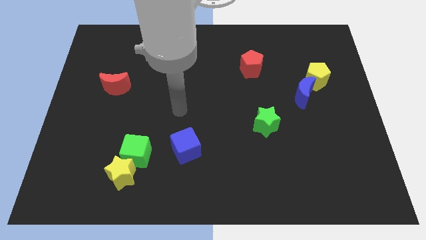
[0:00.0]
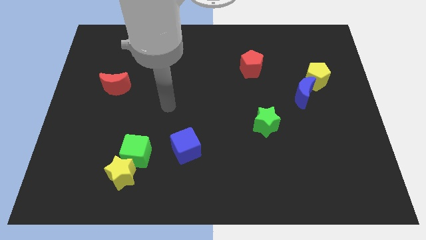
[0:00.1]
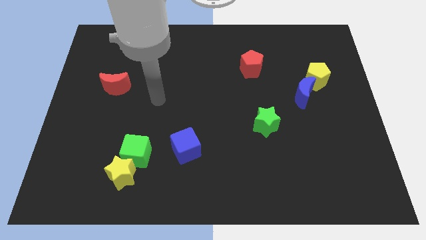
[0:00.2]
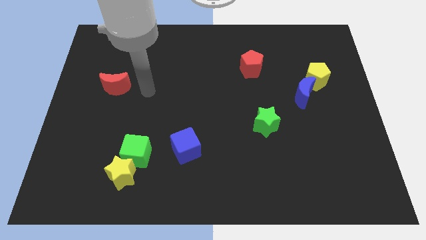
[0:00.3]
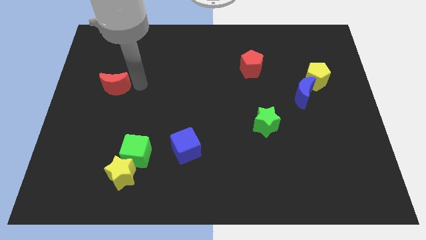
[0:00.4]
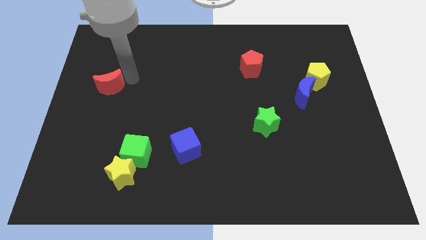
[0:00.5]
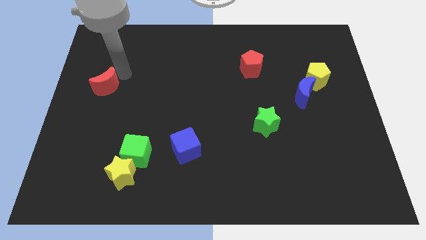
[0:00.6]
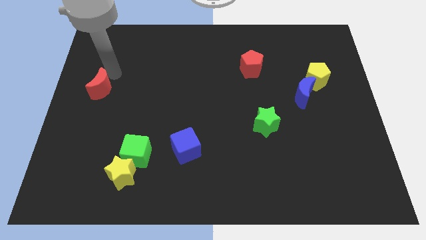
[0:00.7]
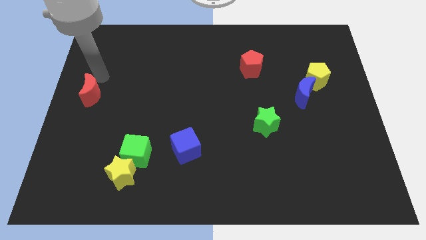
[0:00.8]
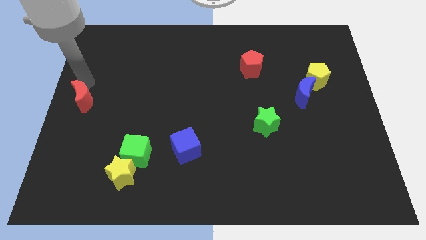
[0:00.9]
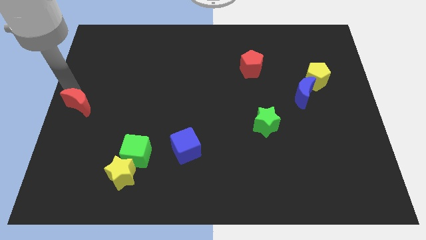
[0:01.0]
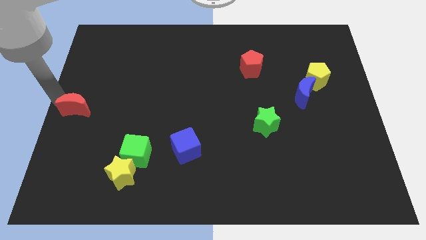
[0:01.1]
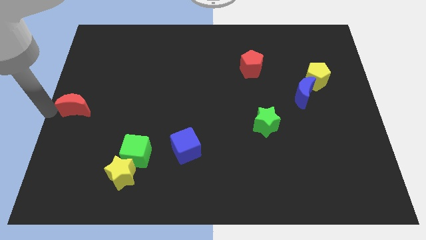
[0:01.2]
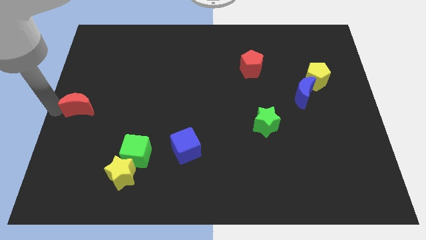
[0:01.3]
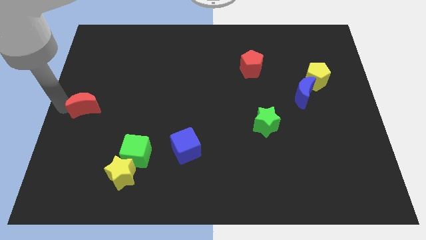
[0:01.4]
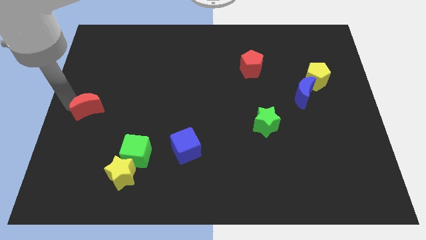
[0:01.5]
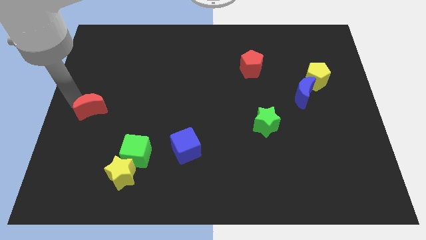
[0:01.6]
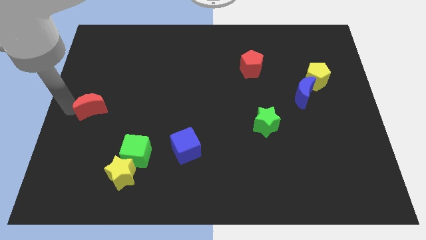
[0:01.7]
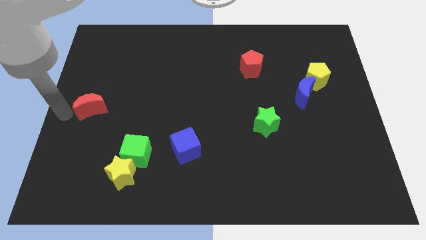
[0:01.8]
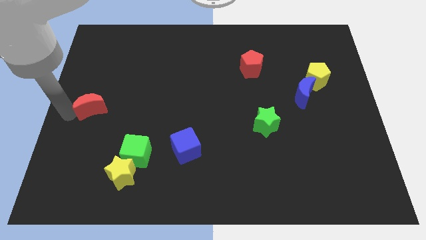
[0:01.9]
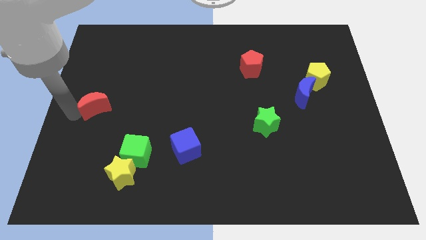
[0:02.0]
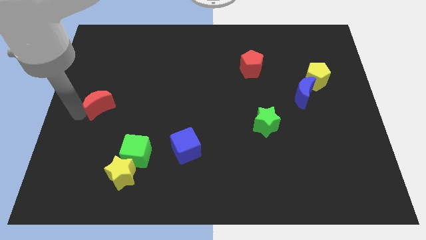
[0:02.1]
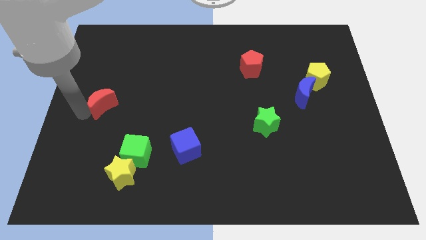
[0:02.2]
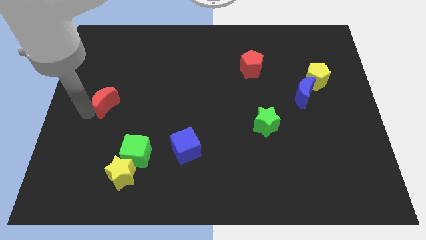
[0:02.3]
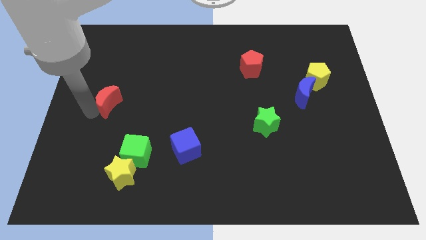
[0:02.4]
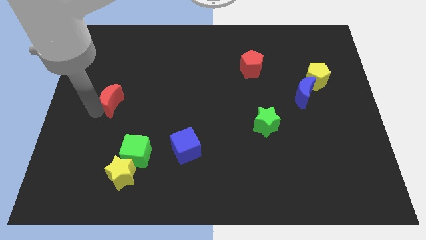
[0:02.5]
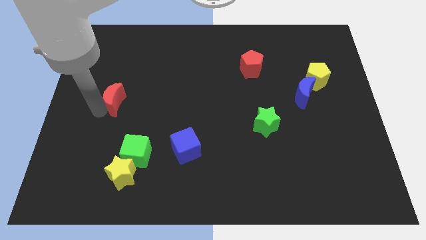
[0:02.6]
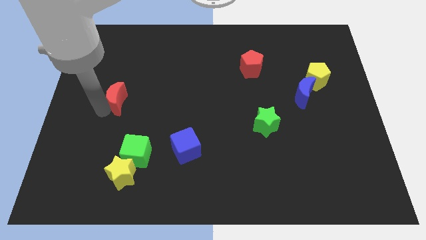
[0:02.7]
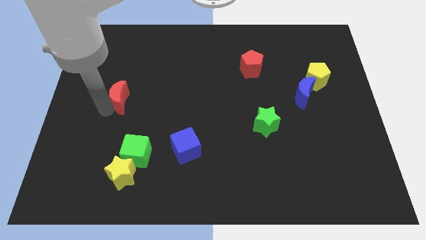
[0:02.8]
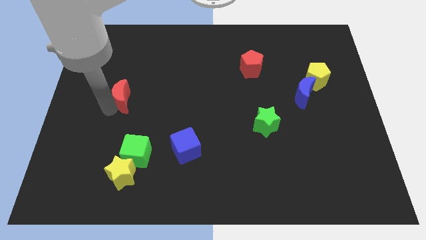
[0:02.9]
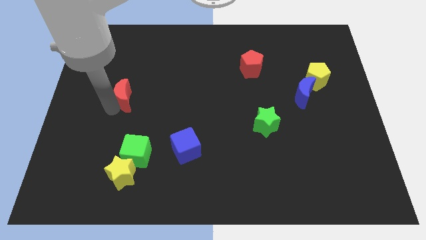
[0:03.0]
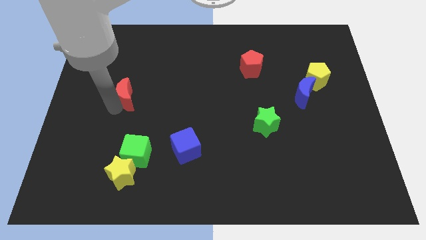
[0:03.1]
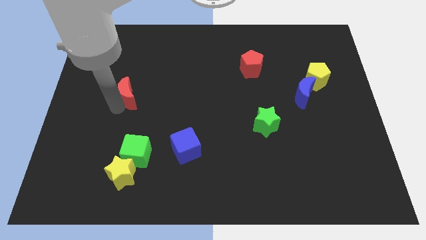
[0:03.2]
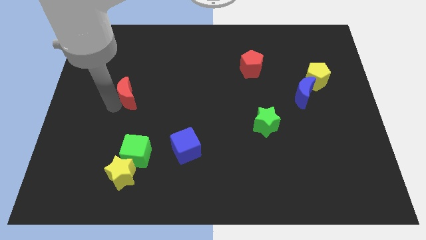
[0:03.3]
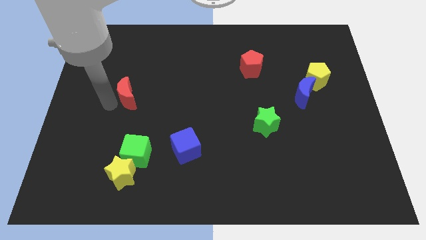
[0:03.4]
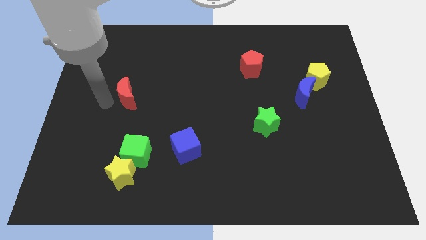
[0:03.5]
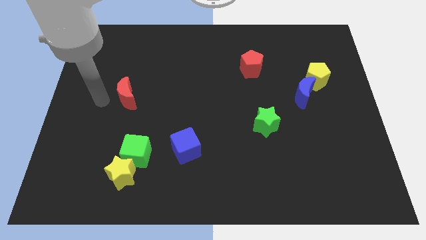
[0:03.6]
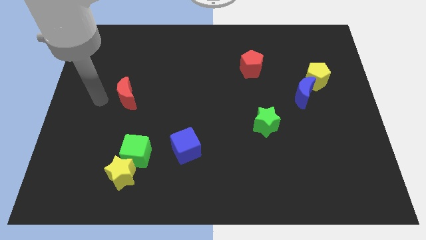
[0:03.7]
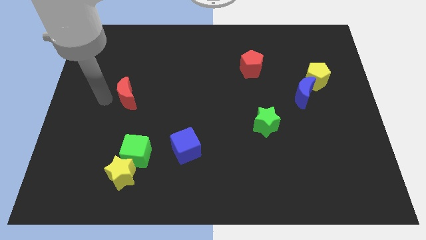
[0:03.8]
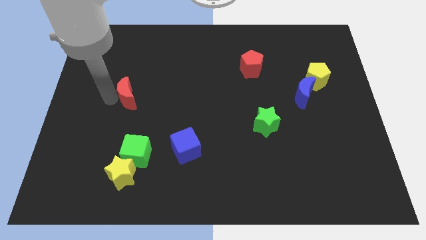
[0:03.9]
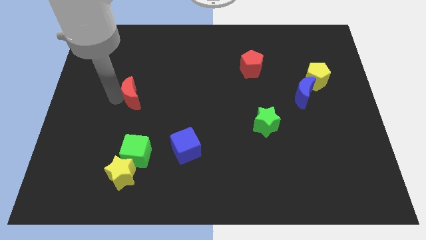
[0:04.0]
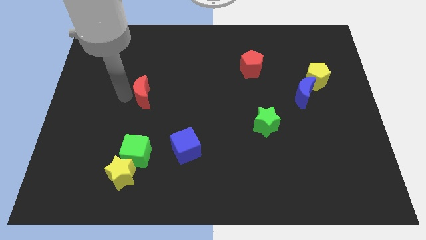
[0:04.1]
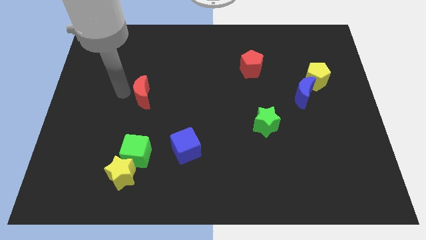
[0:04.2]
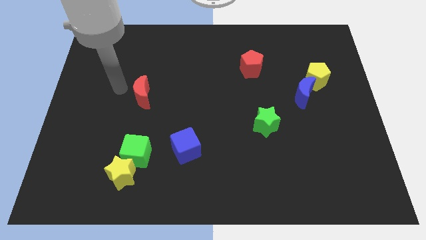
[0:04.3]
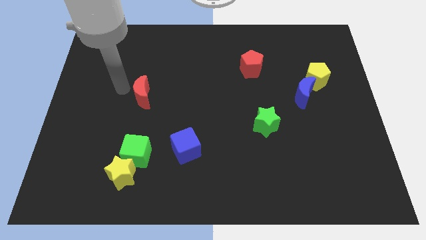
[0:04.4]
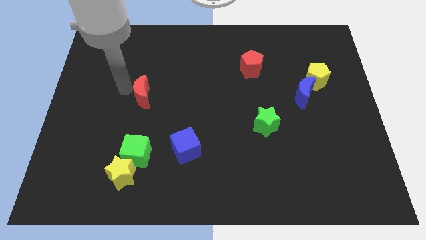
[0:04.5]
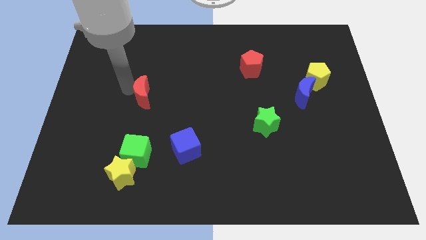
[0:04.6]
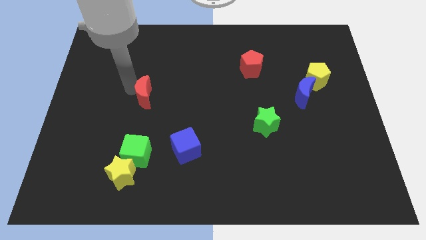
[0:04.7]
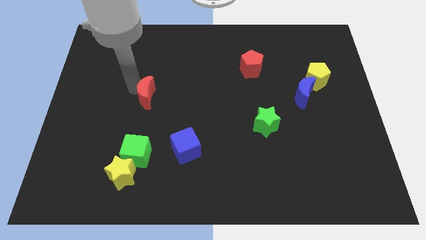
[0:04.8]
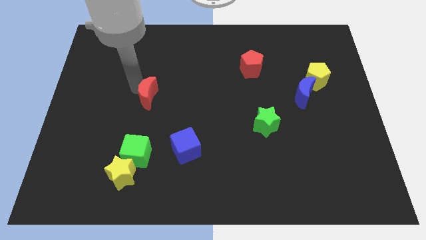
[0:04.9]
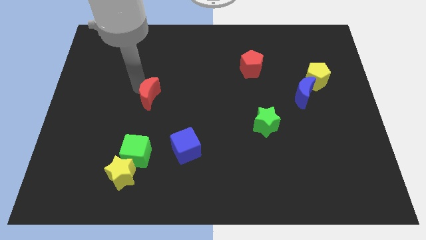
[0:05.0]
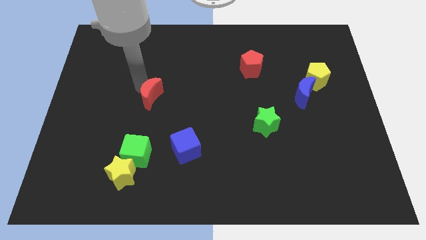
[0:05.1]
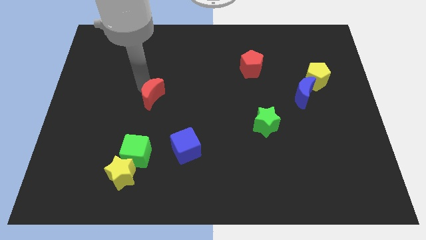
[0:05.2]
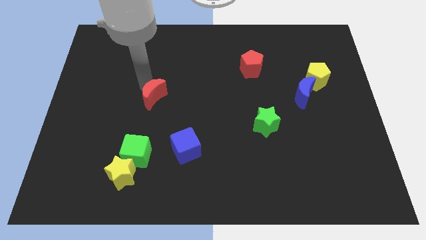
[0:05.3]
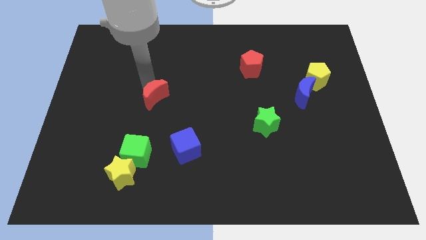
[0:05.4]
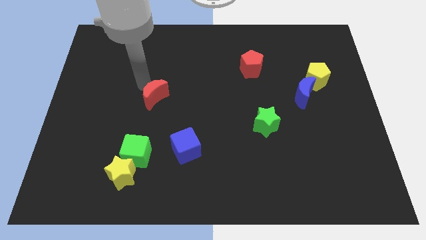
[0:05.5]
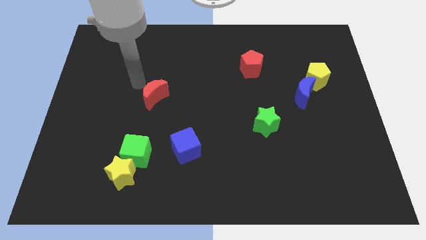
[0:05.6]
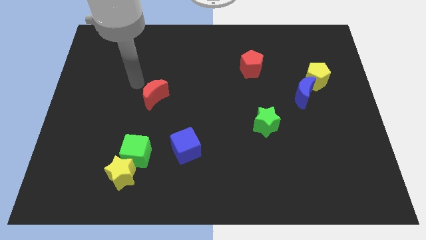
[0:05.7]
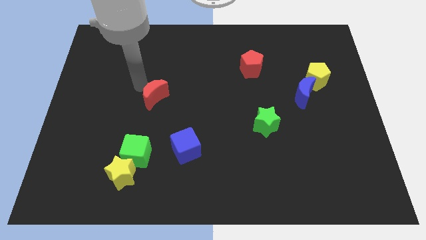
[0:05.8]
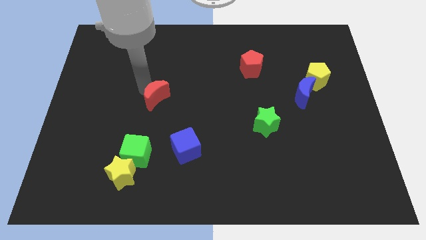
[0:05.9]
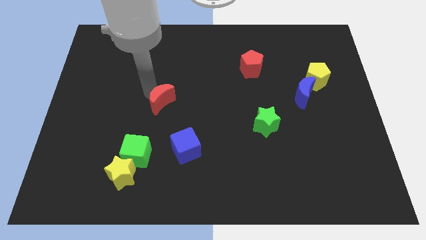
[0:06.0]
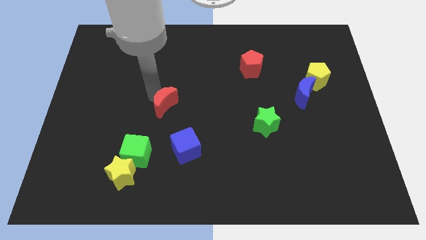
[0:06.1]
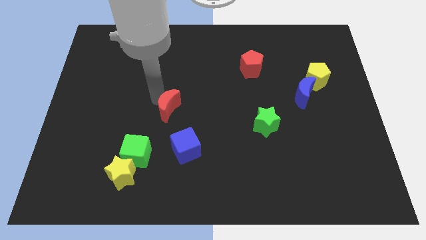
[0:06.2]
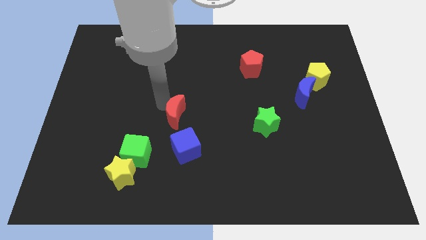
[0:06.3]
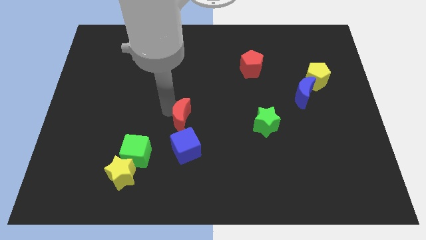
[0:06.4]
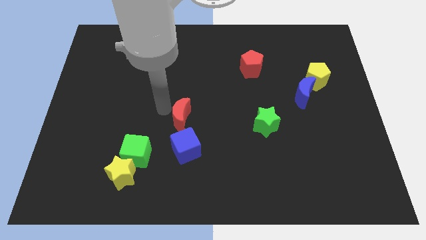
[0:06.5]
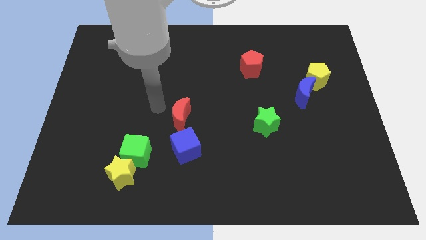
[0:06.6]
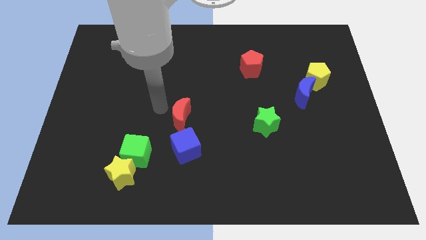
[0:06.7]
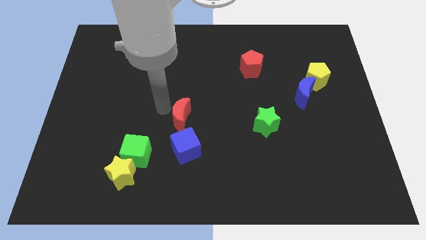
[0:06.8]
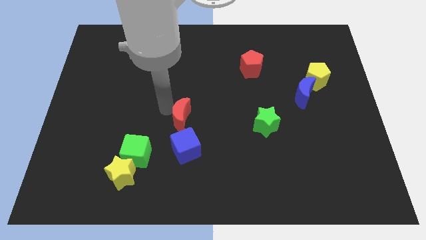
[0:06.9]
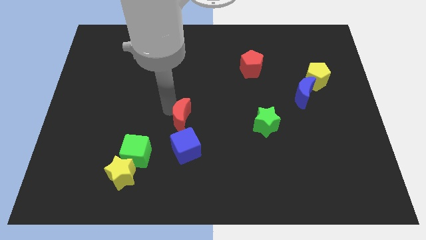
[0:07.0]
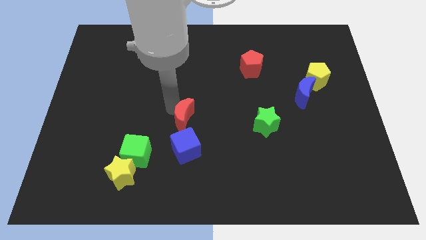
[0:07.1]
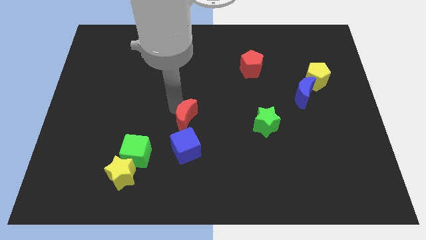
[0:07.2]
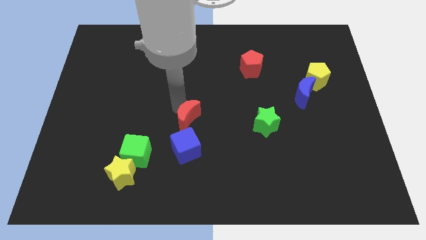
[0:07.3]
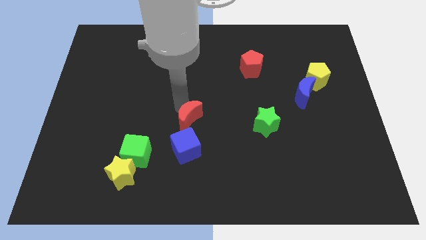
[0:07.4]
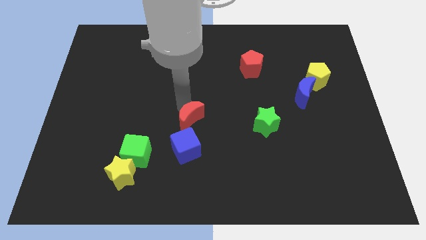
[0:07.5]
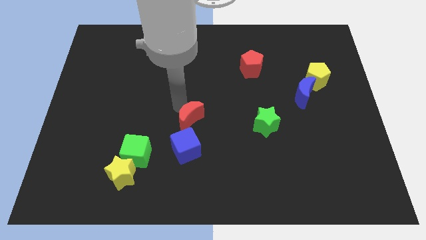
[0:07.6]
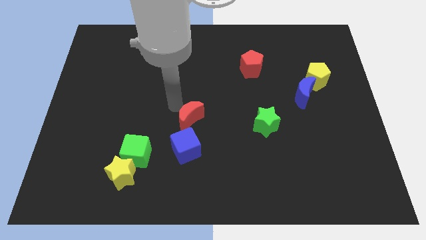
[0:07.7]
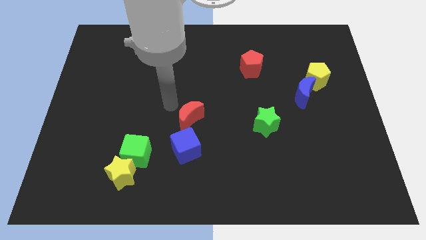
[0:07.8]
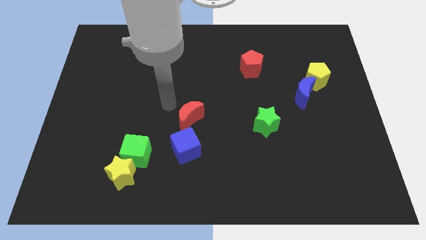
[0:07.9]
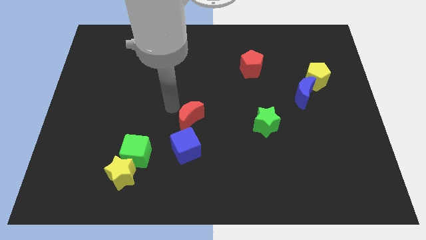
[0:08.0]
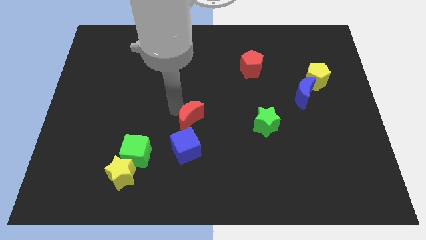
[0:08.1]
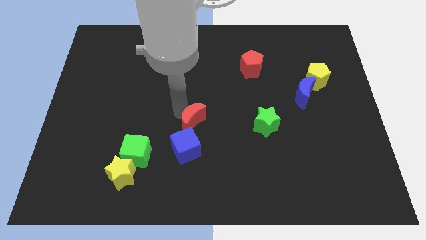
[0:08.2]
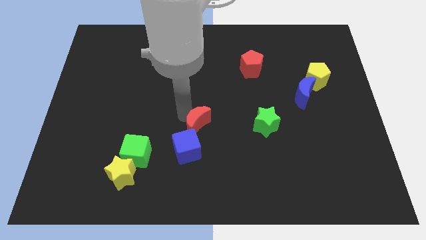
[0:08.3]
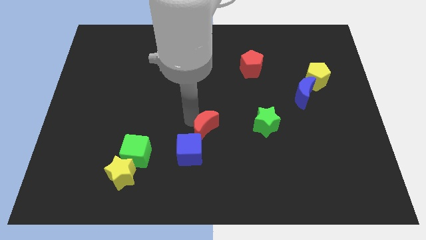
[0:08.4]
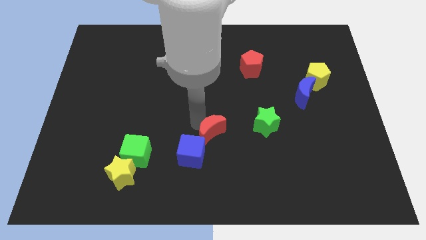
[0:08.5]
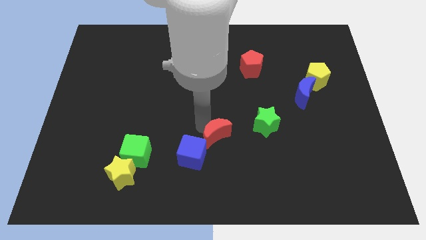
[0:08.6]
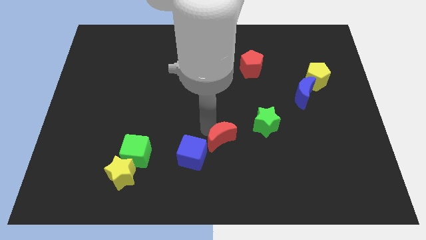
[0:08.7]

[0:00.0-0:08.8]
slide the red moon to the bottom left side of the green star
